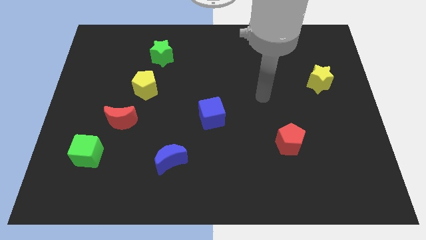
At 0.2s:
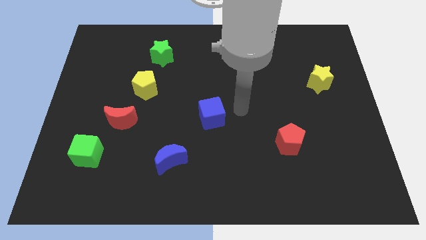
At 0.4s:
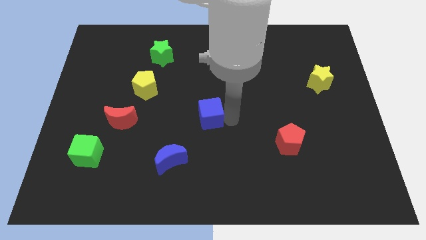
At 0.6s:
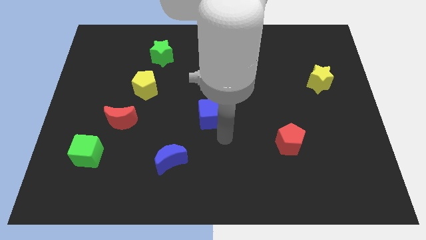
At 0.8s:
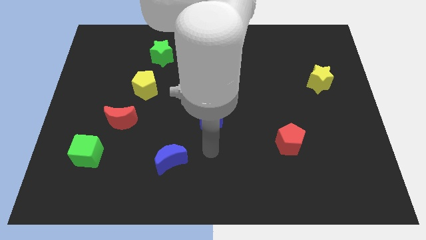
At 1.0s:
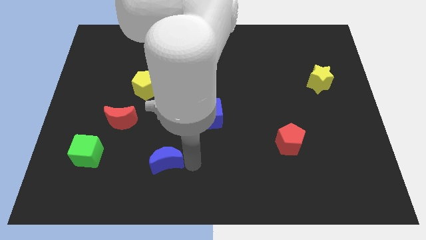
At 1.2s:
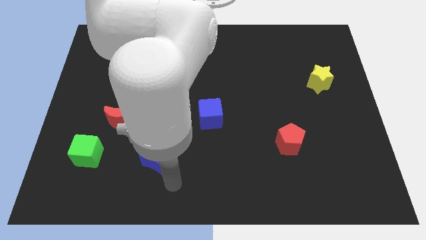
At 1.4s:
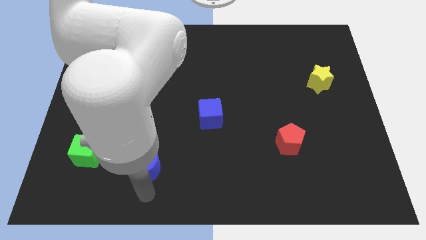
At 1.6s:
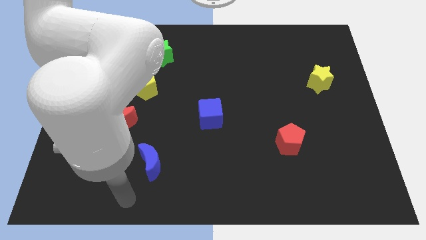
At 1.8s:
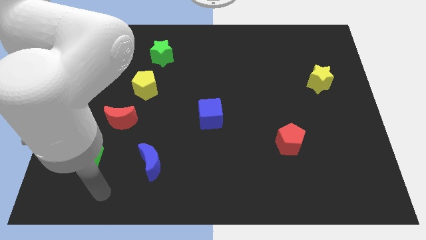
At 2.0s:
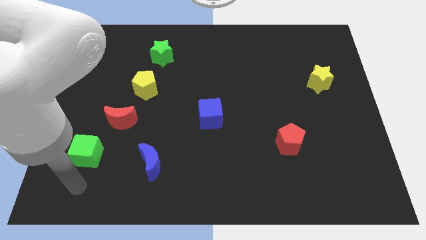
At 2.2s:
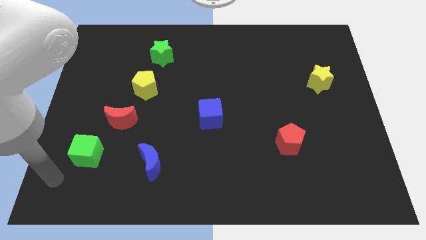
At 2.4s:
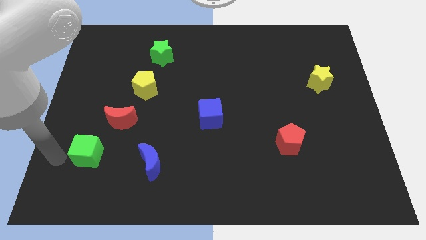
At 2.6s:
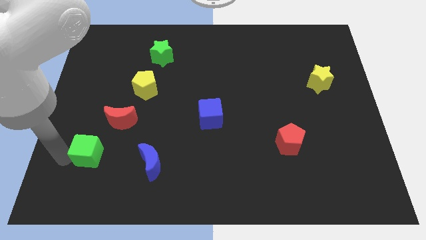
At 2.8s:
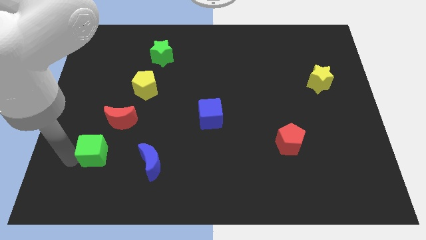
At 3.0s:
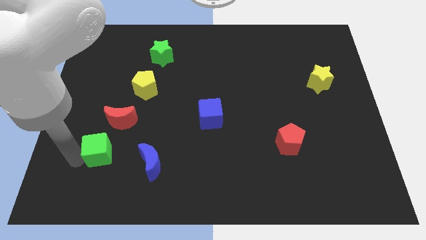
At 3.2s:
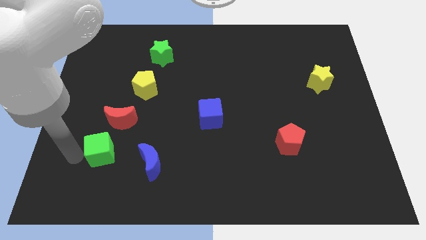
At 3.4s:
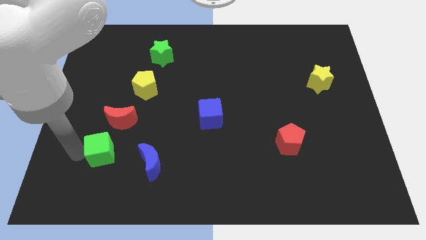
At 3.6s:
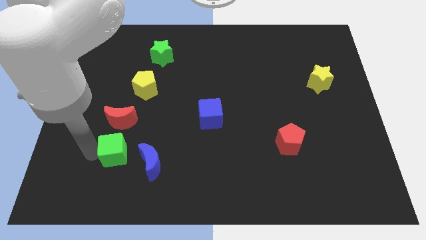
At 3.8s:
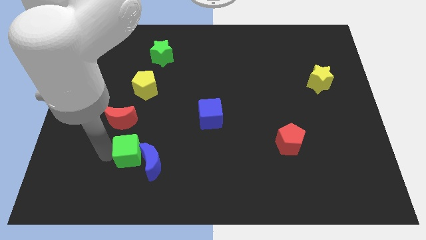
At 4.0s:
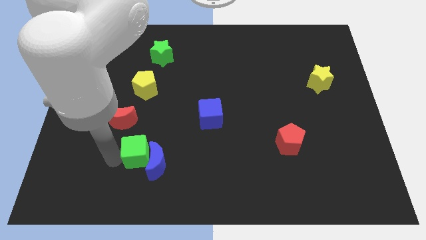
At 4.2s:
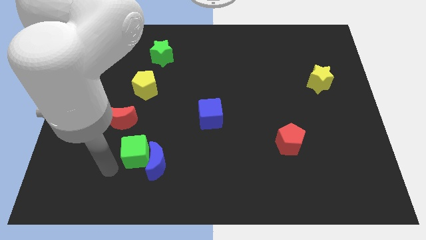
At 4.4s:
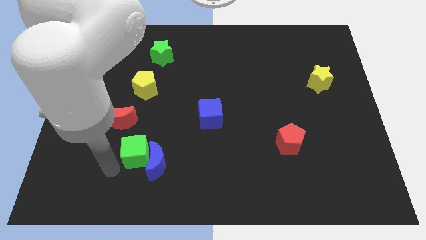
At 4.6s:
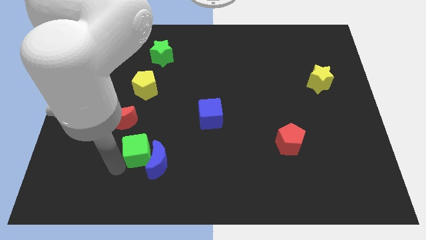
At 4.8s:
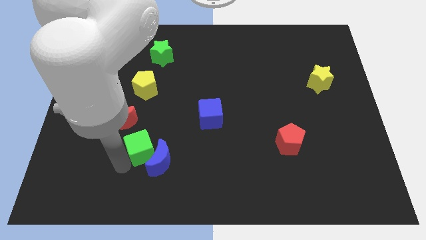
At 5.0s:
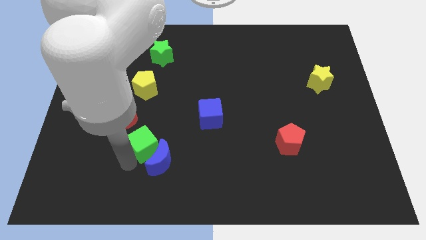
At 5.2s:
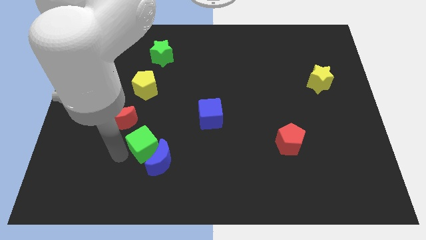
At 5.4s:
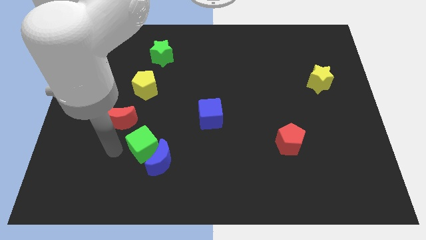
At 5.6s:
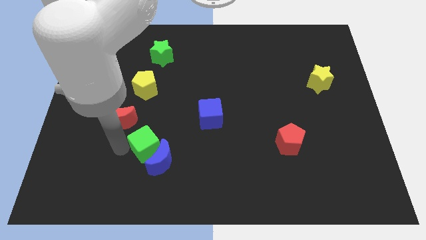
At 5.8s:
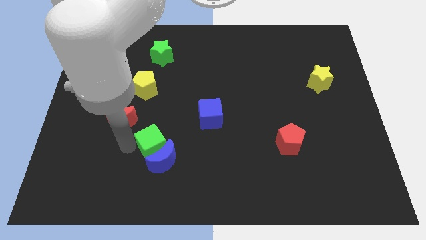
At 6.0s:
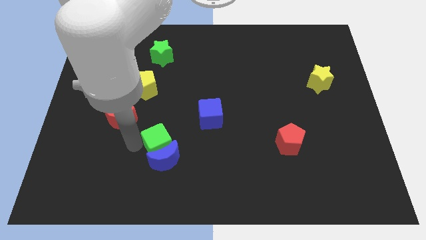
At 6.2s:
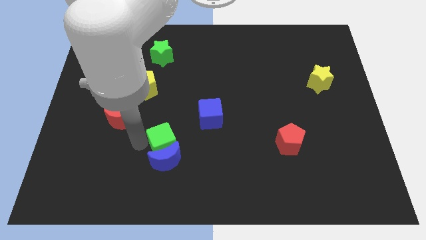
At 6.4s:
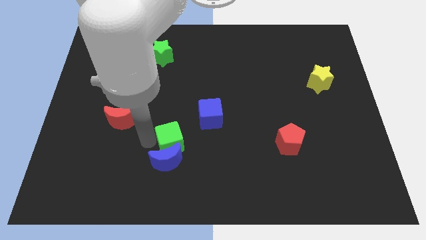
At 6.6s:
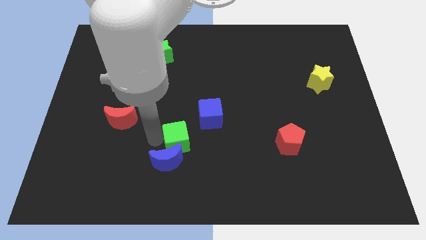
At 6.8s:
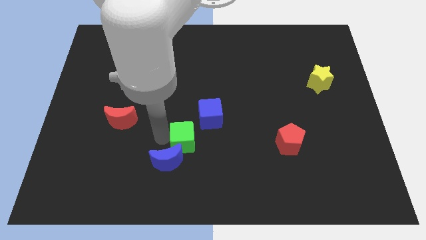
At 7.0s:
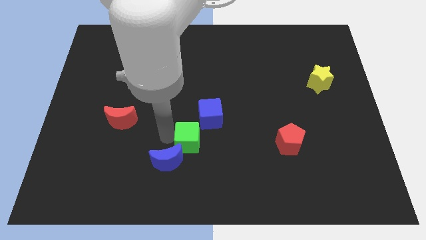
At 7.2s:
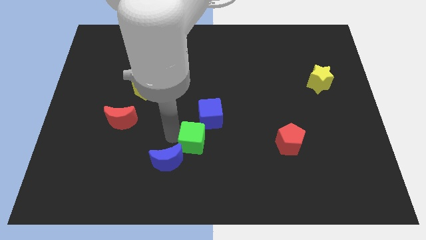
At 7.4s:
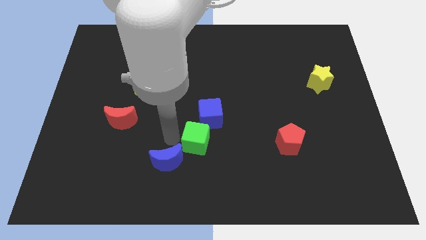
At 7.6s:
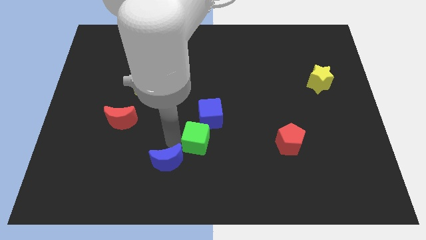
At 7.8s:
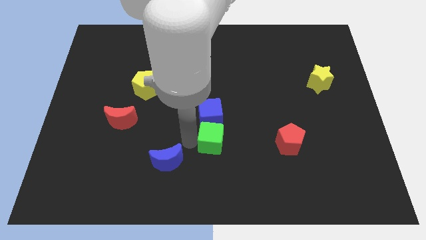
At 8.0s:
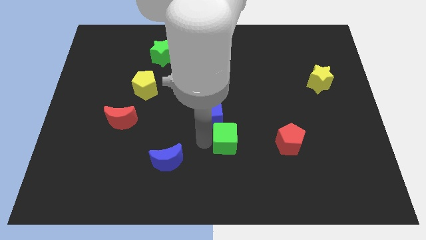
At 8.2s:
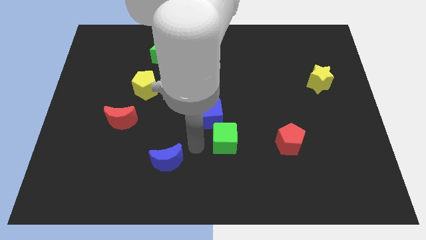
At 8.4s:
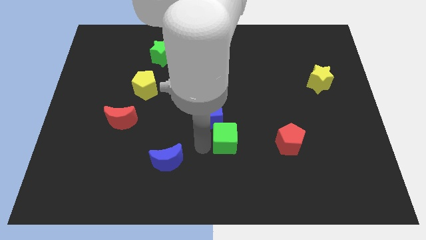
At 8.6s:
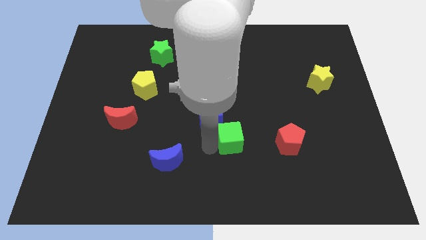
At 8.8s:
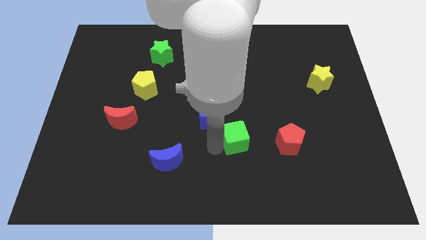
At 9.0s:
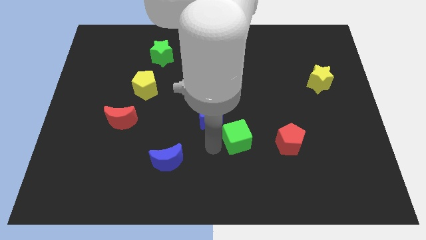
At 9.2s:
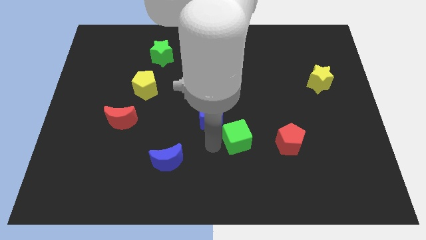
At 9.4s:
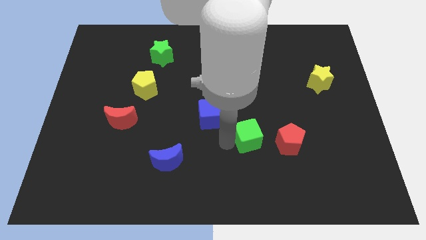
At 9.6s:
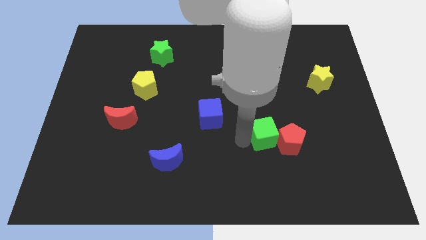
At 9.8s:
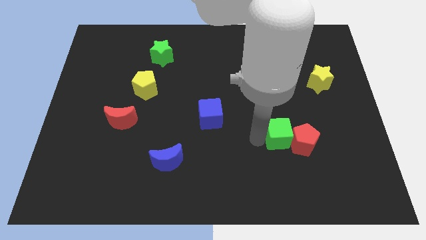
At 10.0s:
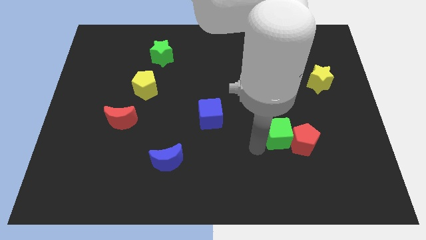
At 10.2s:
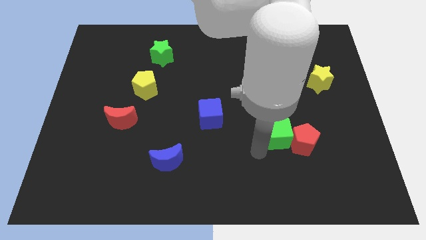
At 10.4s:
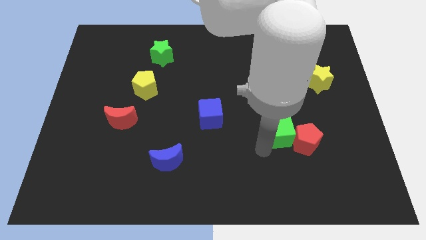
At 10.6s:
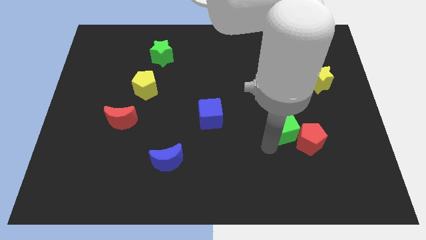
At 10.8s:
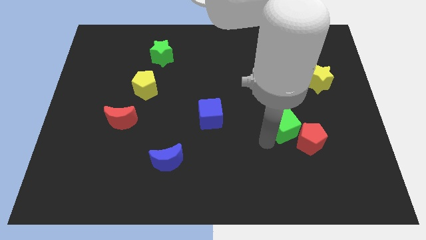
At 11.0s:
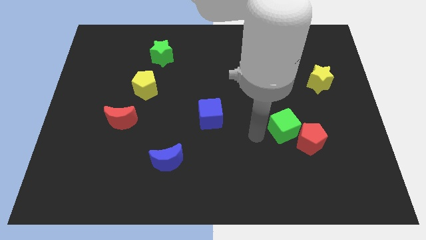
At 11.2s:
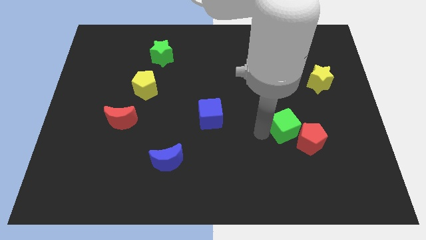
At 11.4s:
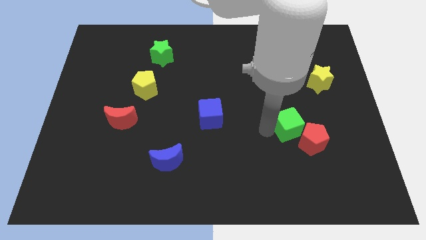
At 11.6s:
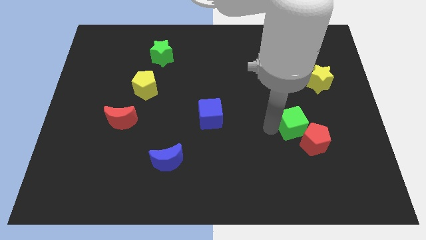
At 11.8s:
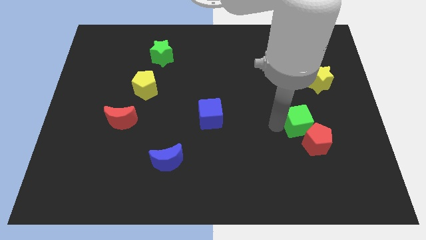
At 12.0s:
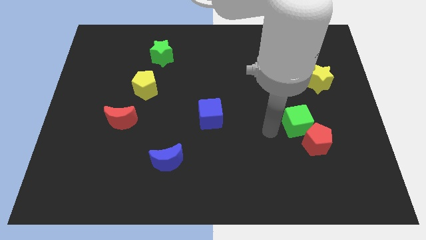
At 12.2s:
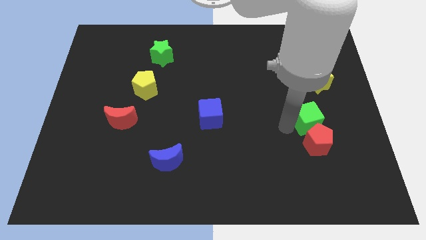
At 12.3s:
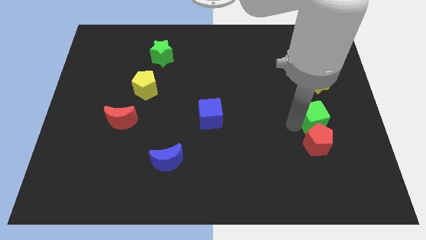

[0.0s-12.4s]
push the green cube to the bottom side of the yellow star

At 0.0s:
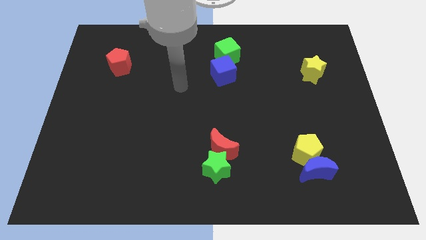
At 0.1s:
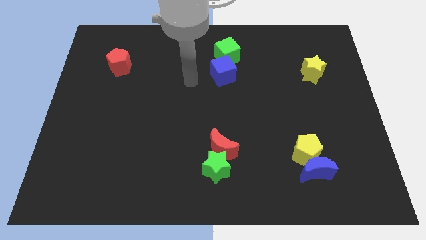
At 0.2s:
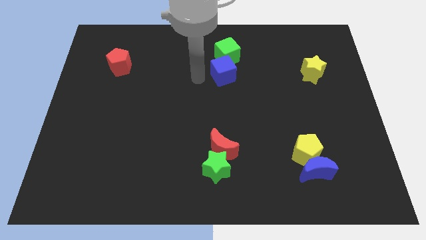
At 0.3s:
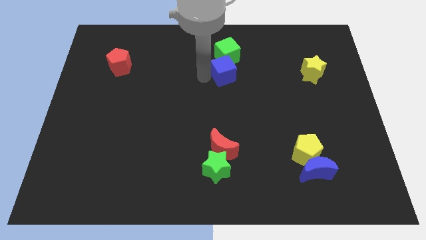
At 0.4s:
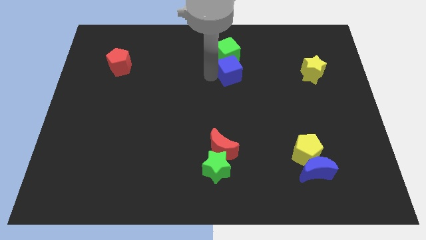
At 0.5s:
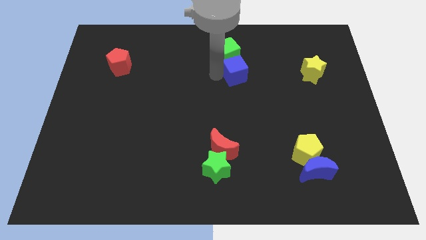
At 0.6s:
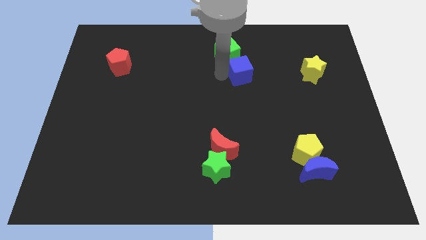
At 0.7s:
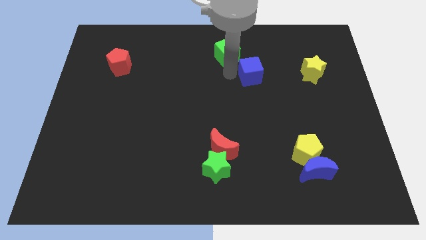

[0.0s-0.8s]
put the blue cube to the left side of the yellow star
